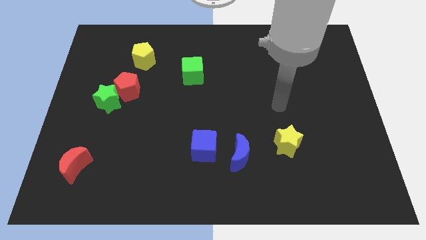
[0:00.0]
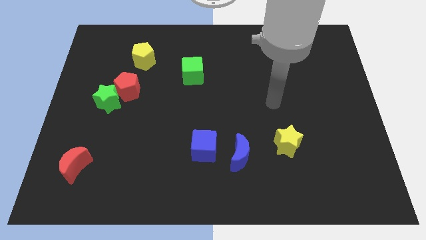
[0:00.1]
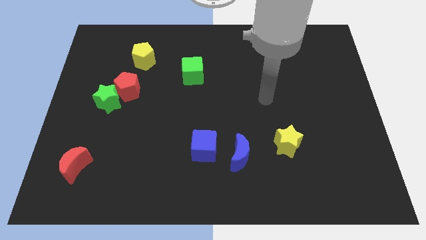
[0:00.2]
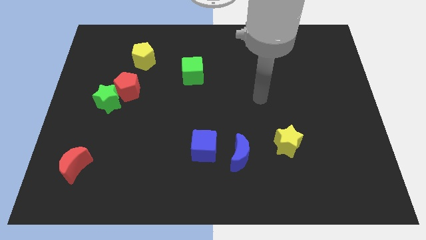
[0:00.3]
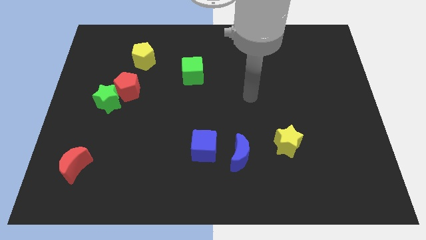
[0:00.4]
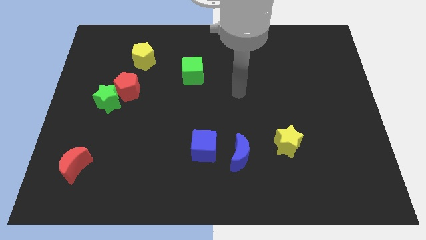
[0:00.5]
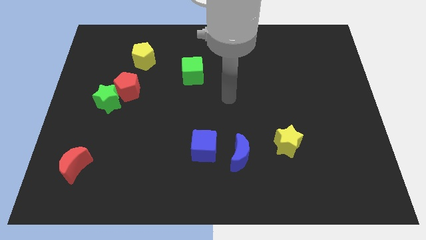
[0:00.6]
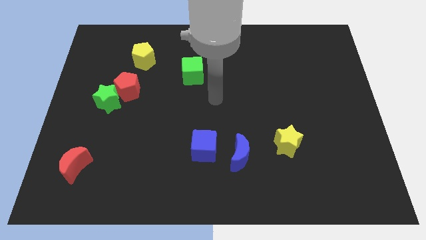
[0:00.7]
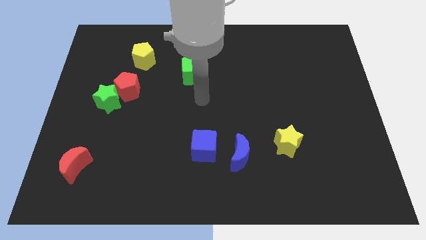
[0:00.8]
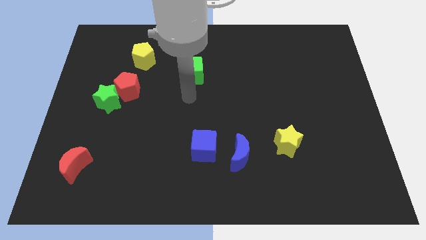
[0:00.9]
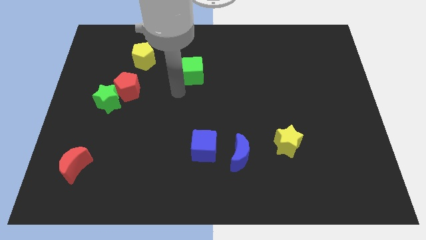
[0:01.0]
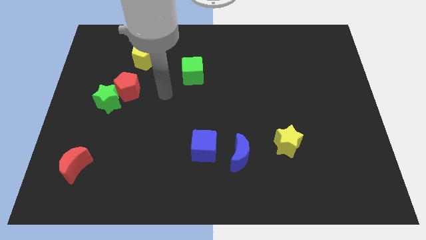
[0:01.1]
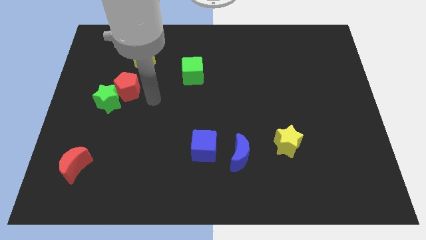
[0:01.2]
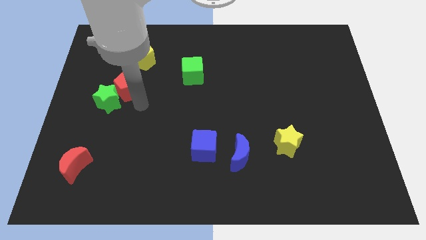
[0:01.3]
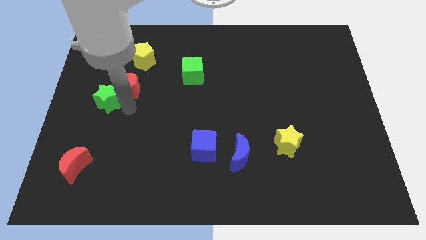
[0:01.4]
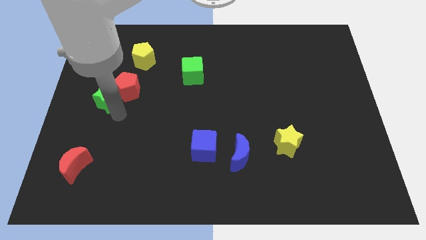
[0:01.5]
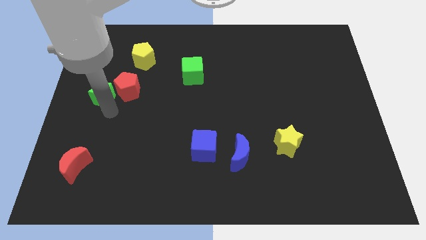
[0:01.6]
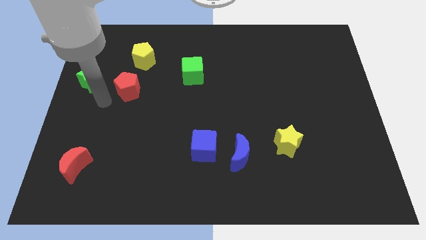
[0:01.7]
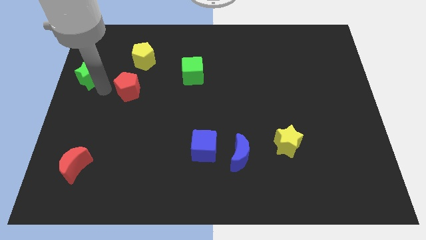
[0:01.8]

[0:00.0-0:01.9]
pull the red pentagon apart from the green star

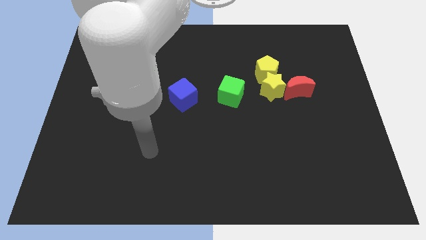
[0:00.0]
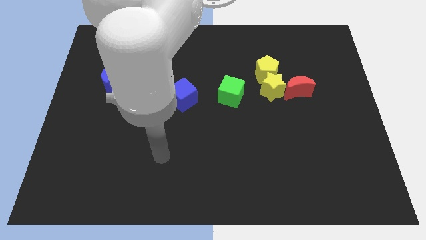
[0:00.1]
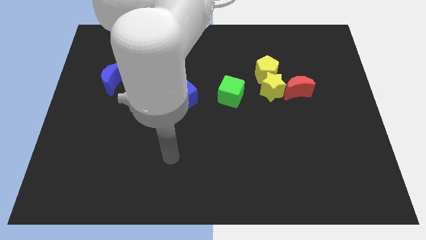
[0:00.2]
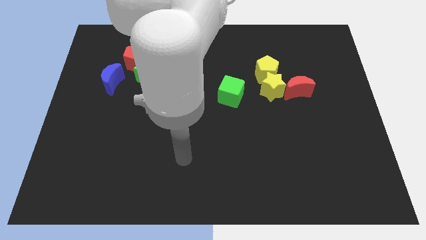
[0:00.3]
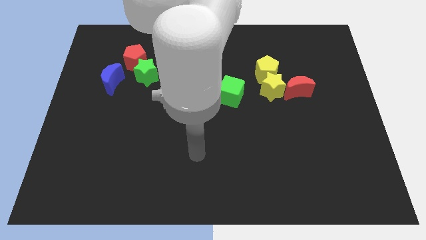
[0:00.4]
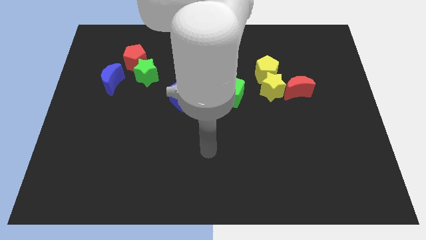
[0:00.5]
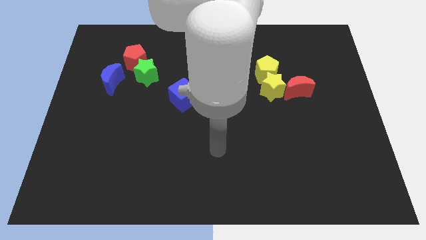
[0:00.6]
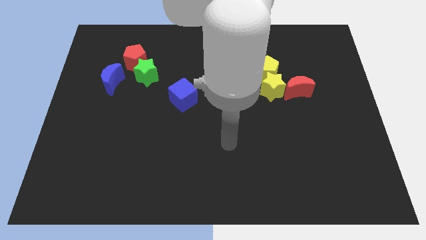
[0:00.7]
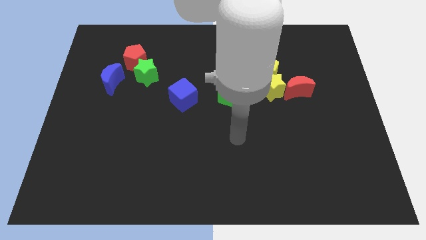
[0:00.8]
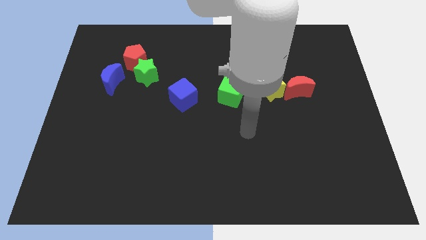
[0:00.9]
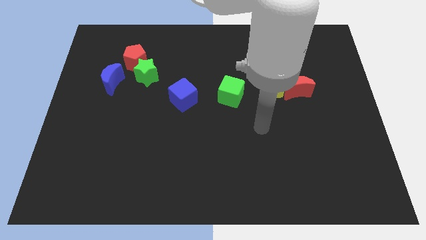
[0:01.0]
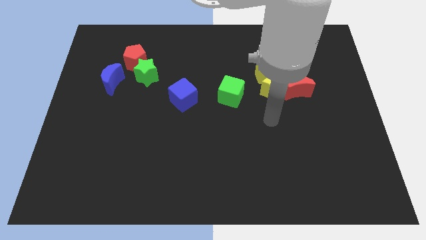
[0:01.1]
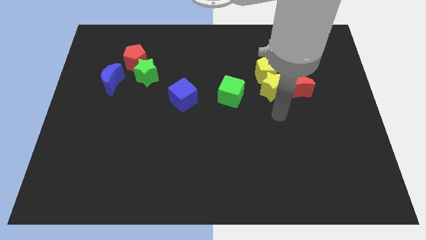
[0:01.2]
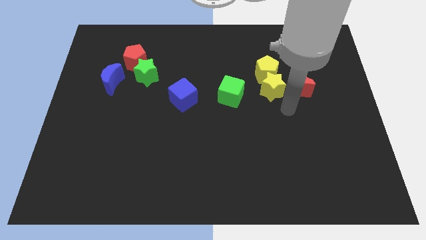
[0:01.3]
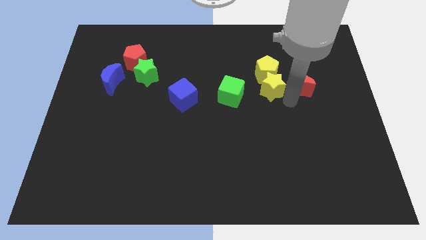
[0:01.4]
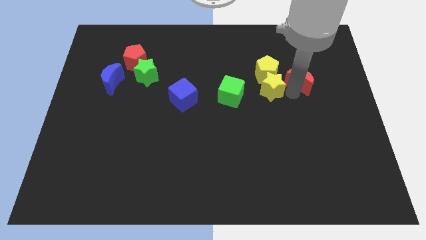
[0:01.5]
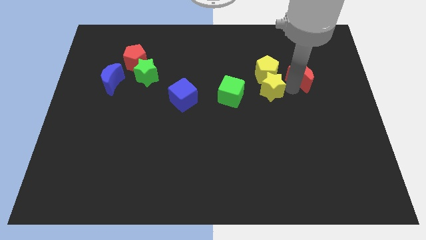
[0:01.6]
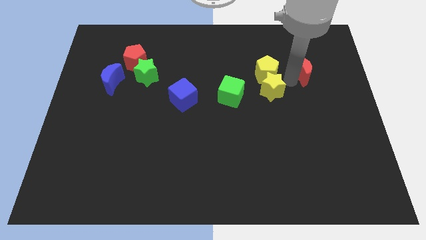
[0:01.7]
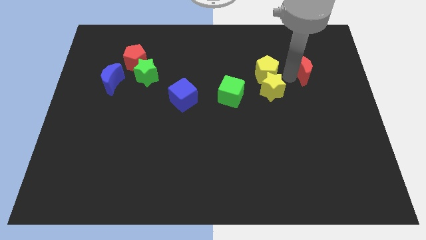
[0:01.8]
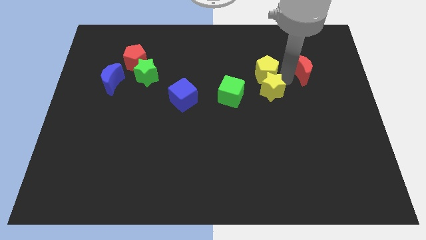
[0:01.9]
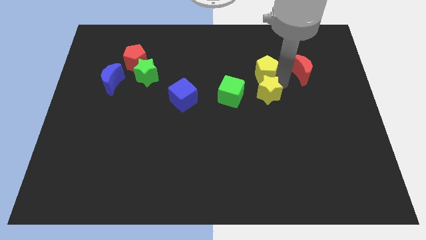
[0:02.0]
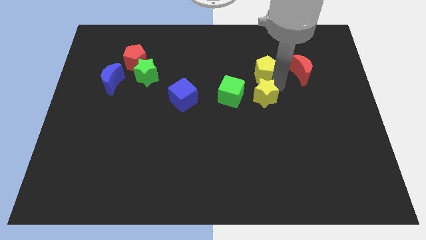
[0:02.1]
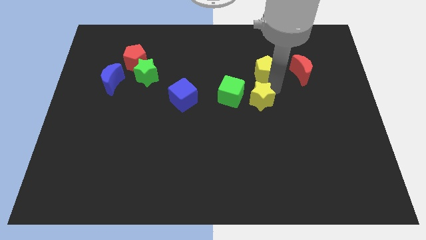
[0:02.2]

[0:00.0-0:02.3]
separate the yellow star from the yellow pentagon and red moon

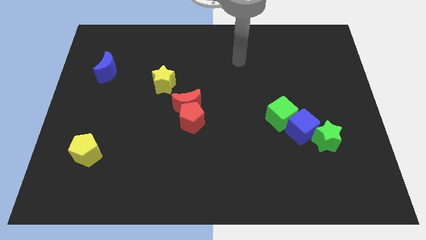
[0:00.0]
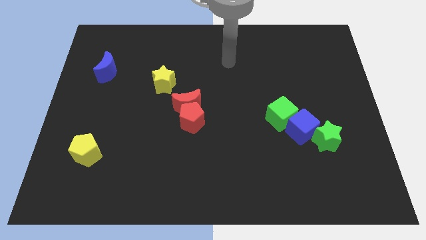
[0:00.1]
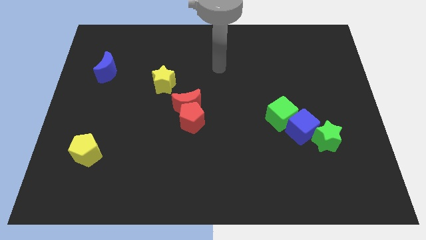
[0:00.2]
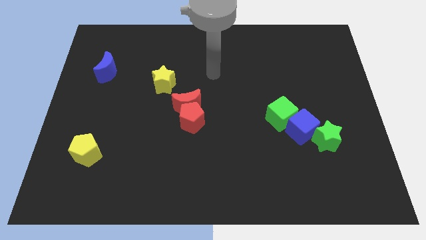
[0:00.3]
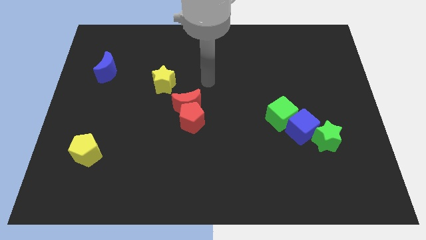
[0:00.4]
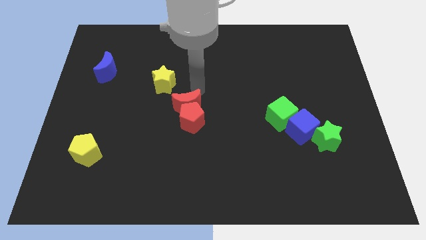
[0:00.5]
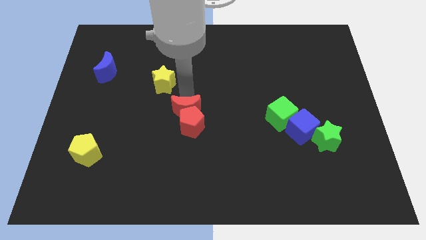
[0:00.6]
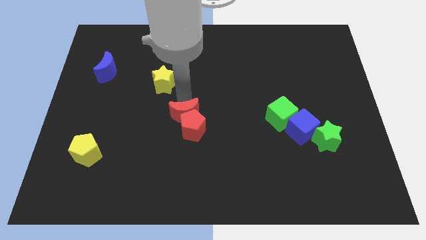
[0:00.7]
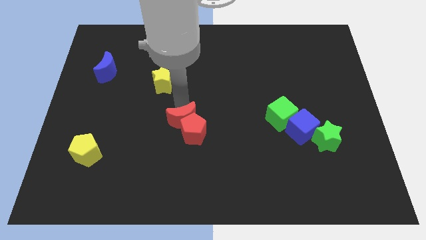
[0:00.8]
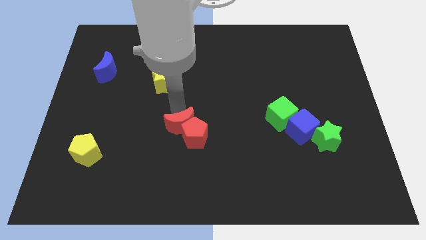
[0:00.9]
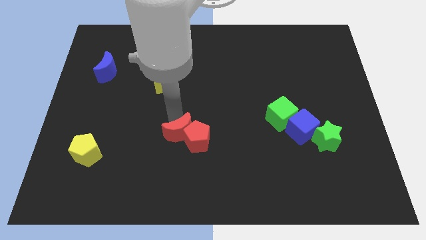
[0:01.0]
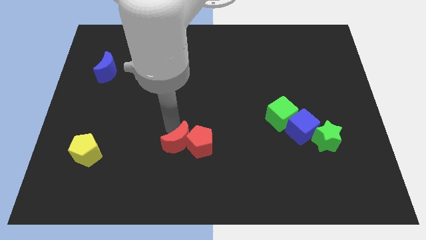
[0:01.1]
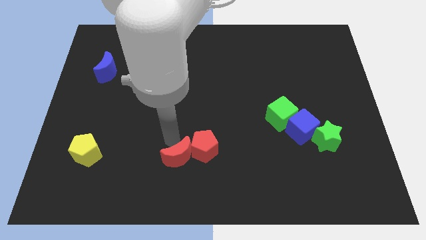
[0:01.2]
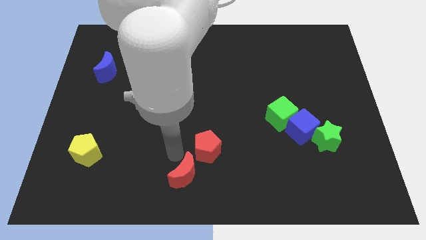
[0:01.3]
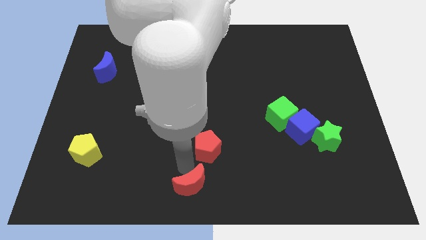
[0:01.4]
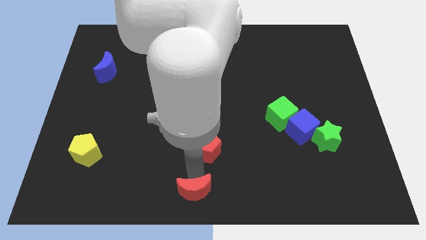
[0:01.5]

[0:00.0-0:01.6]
separate the red pentagon from the red moon

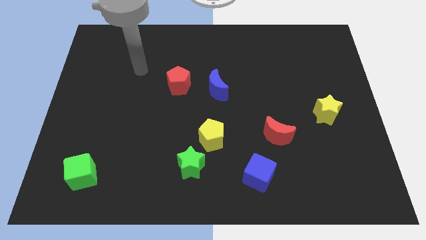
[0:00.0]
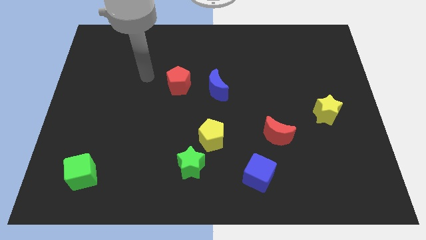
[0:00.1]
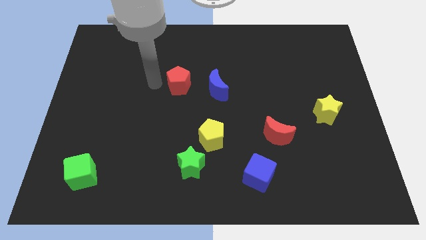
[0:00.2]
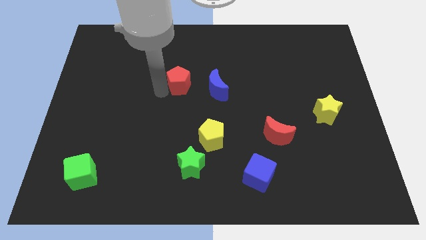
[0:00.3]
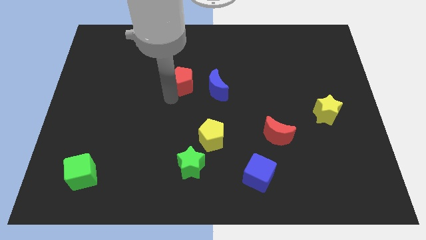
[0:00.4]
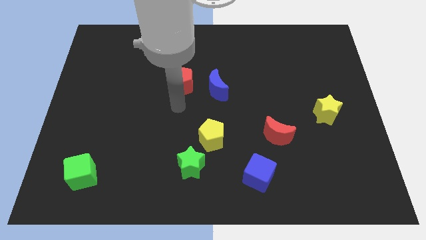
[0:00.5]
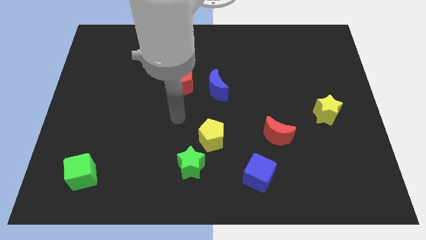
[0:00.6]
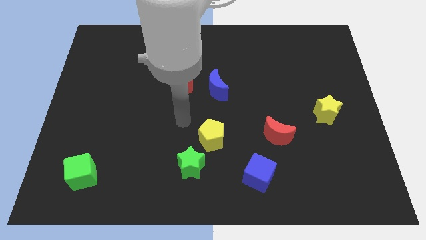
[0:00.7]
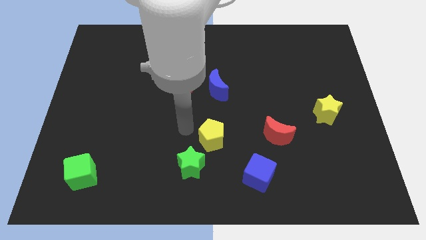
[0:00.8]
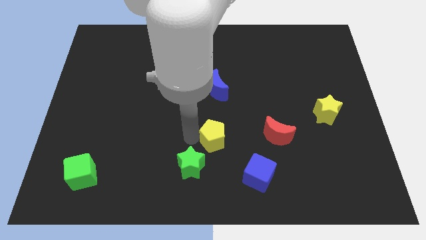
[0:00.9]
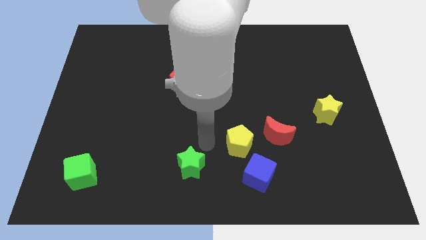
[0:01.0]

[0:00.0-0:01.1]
separate the green star from the yellow pentagon

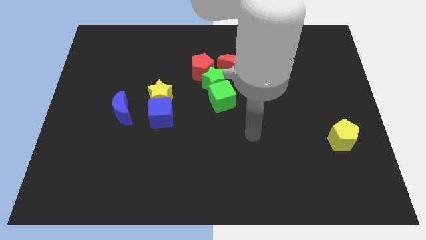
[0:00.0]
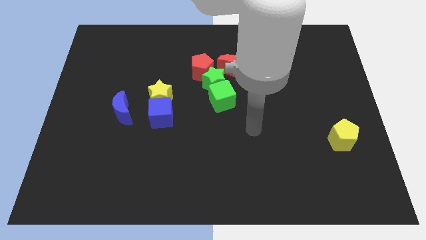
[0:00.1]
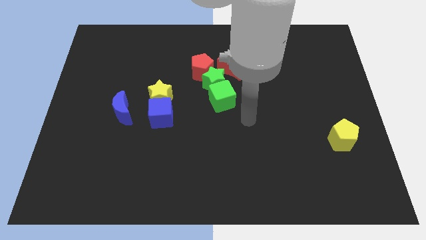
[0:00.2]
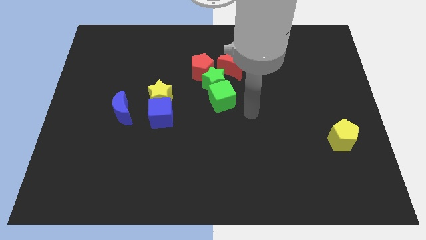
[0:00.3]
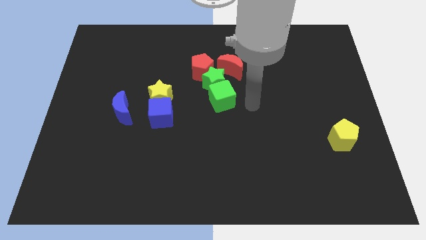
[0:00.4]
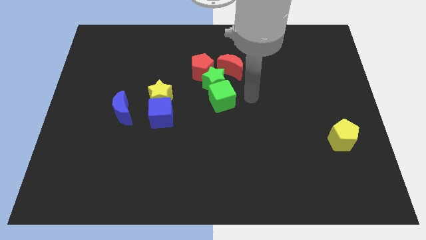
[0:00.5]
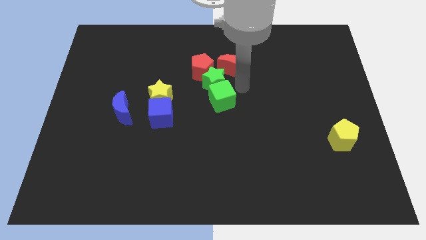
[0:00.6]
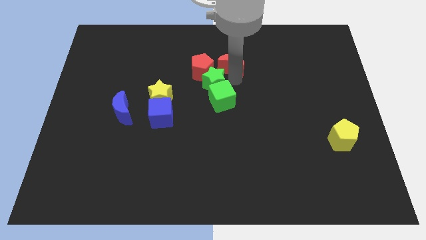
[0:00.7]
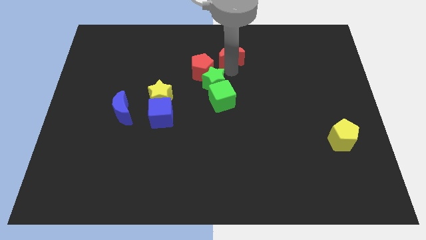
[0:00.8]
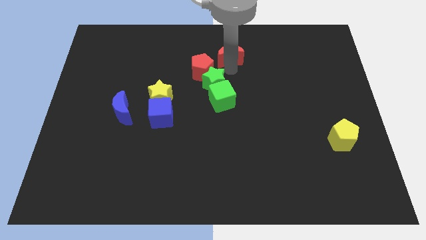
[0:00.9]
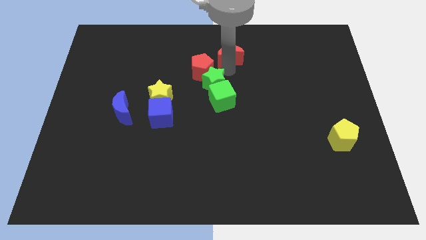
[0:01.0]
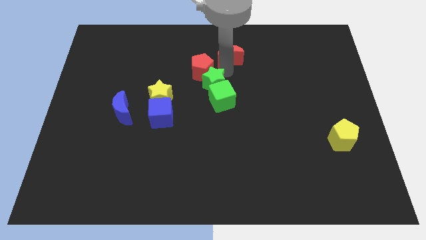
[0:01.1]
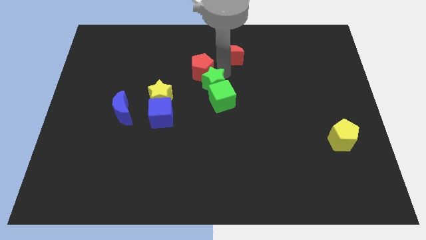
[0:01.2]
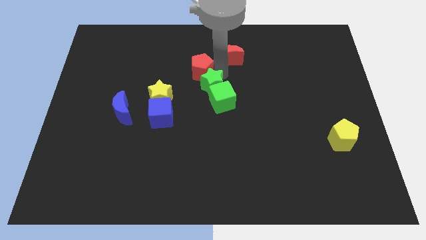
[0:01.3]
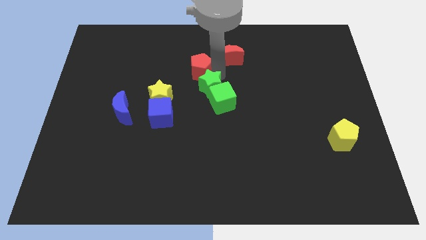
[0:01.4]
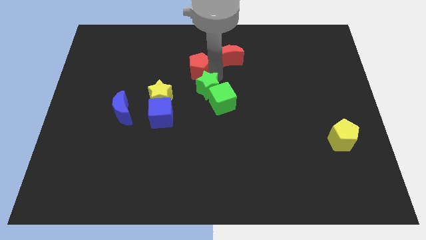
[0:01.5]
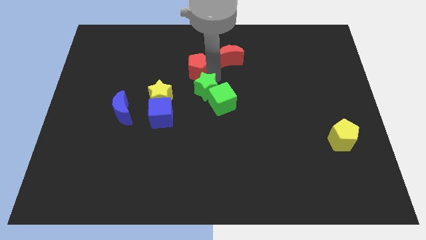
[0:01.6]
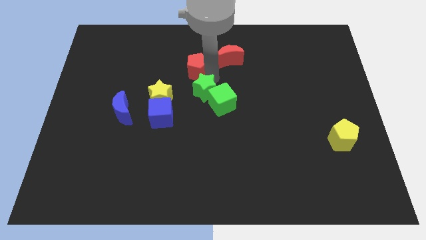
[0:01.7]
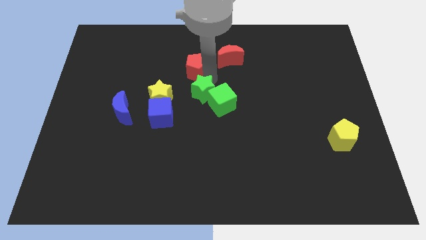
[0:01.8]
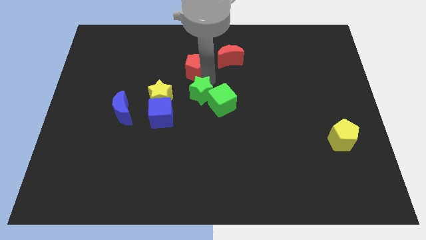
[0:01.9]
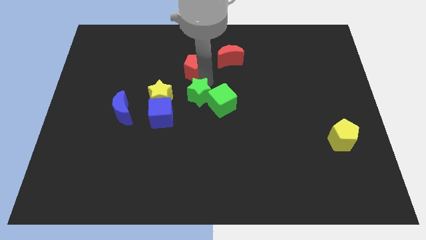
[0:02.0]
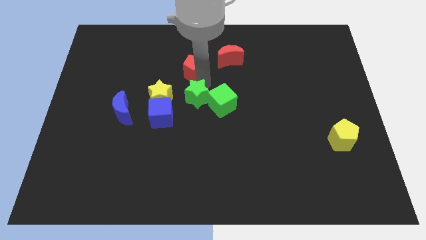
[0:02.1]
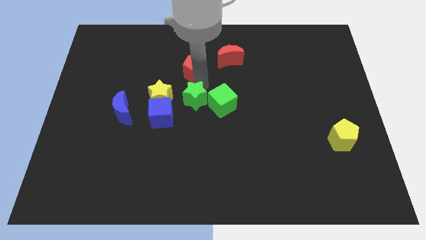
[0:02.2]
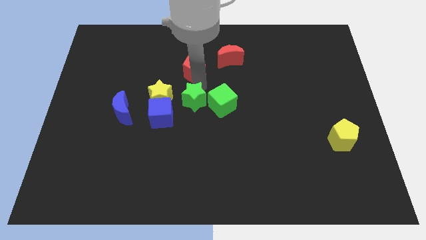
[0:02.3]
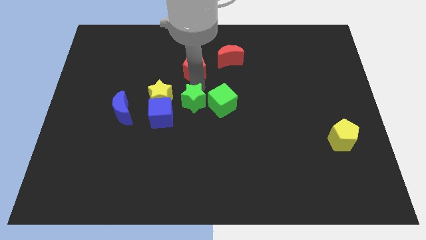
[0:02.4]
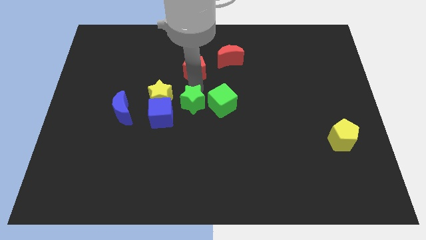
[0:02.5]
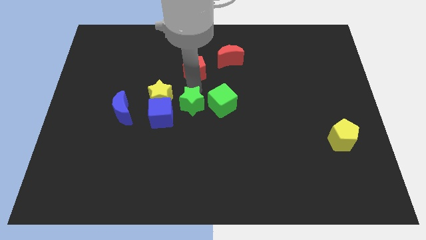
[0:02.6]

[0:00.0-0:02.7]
separate the green star from the clump
